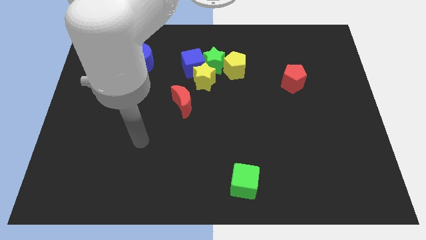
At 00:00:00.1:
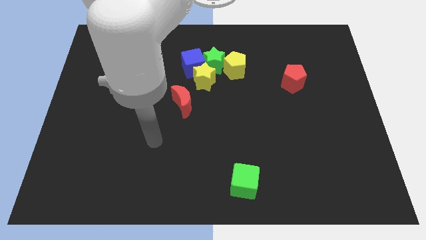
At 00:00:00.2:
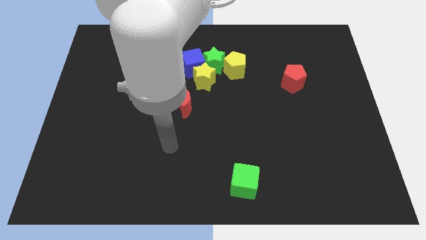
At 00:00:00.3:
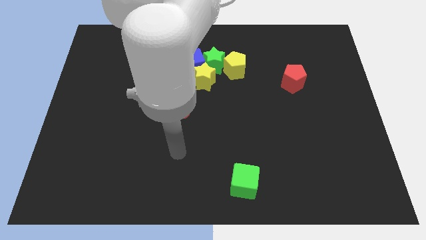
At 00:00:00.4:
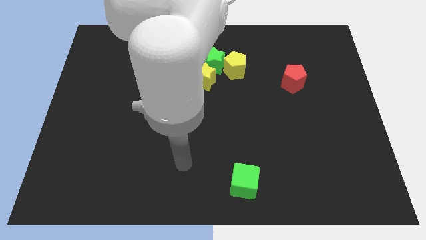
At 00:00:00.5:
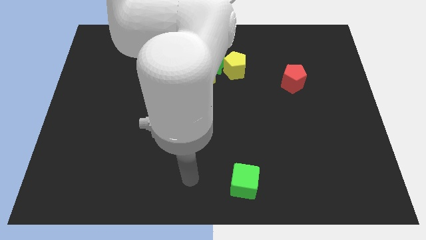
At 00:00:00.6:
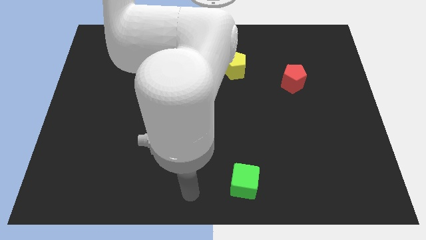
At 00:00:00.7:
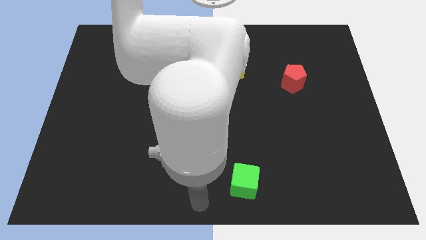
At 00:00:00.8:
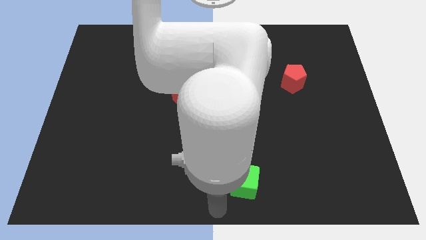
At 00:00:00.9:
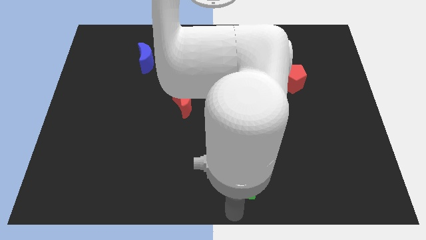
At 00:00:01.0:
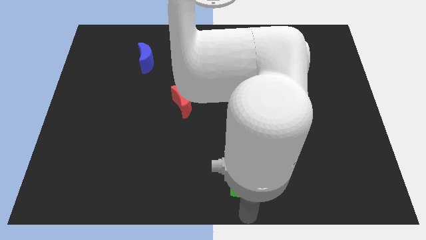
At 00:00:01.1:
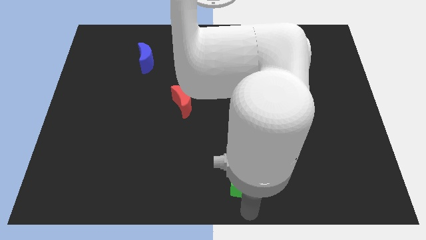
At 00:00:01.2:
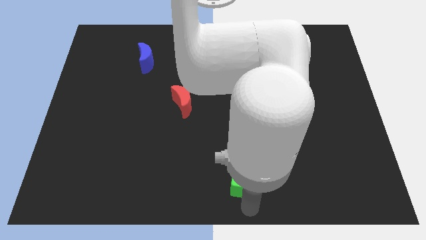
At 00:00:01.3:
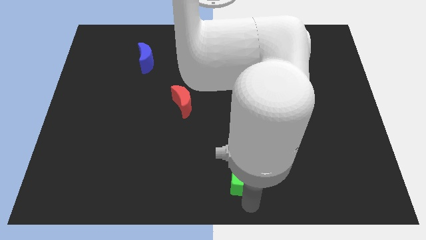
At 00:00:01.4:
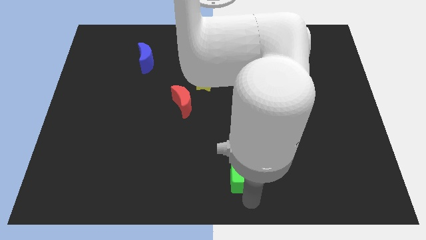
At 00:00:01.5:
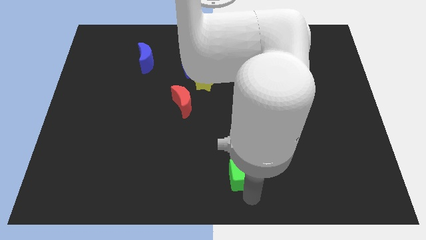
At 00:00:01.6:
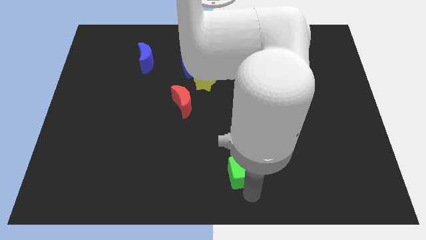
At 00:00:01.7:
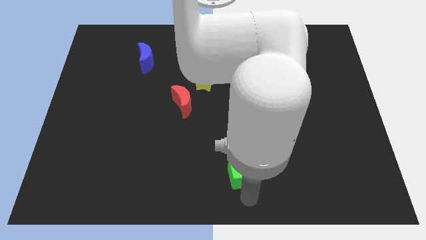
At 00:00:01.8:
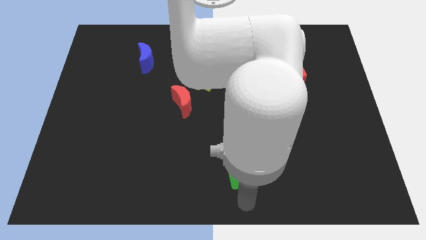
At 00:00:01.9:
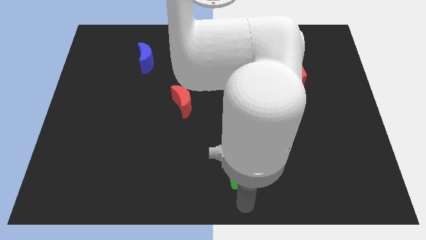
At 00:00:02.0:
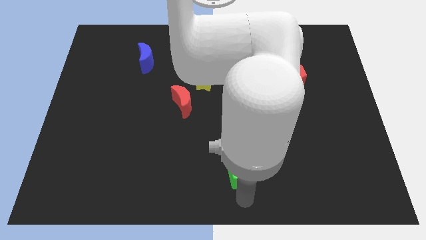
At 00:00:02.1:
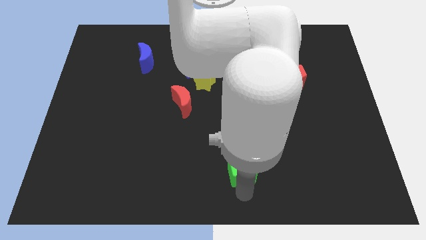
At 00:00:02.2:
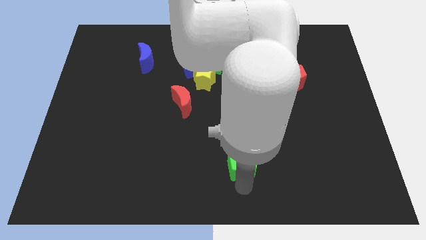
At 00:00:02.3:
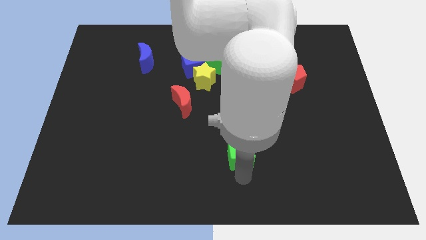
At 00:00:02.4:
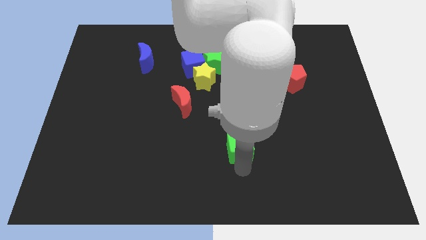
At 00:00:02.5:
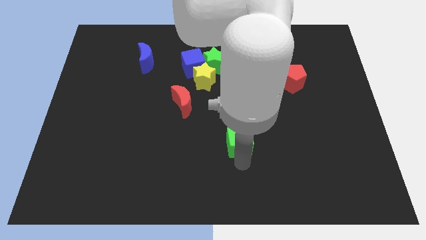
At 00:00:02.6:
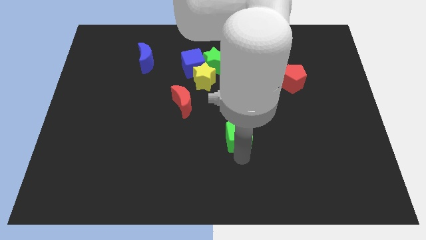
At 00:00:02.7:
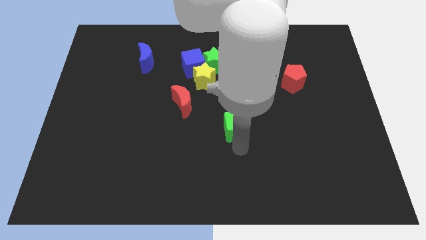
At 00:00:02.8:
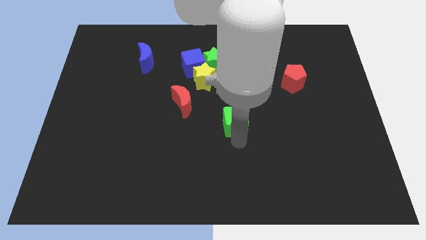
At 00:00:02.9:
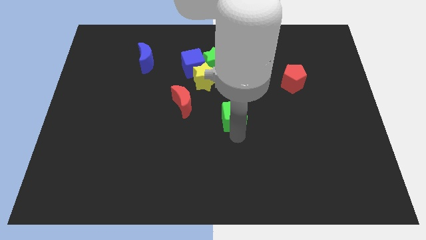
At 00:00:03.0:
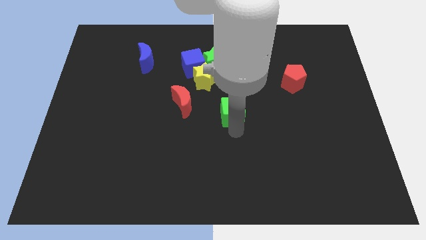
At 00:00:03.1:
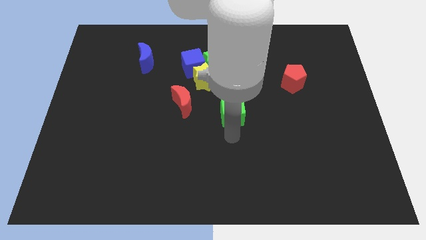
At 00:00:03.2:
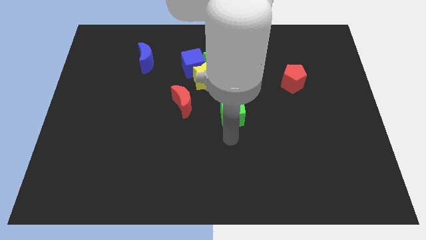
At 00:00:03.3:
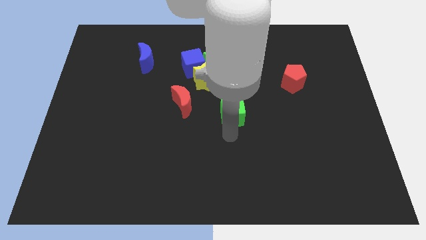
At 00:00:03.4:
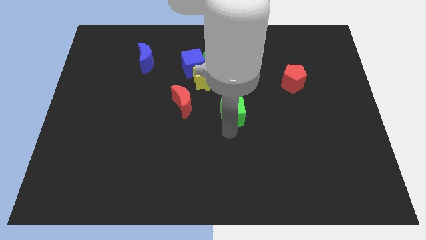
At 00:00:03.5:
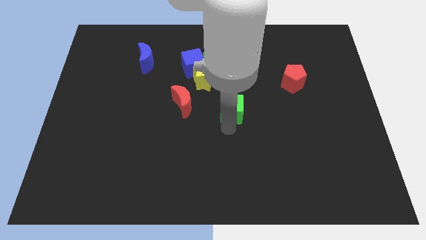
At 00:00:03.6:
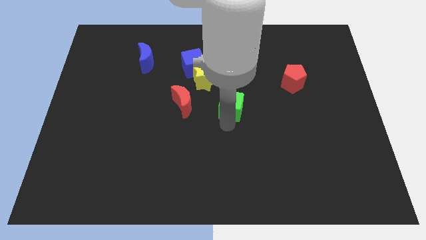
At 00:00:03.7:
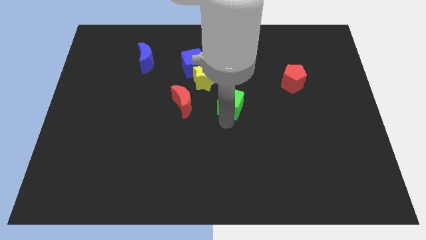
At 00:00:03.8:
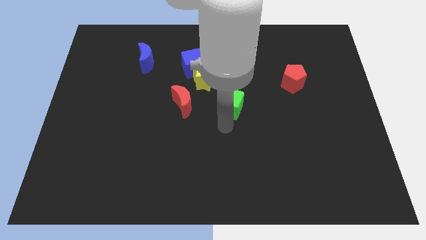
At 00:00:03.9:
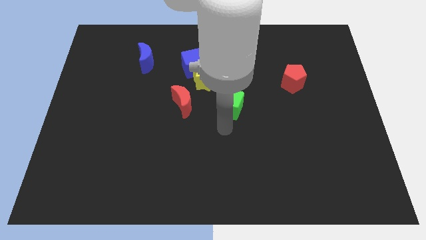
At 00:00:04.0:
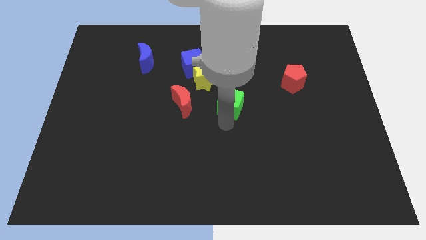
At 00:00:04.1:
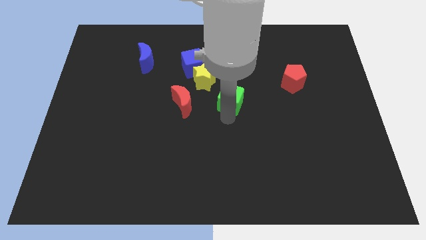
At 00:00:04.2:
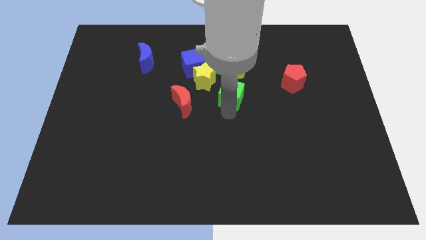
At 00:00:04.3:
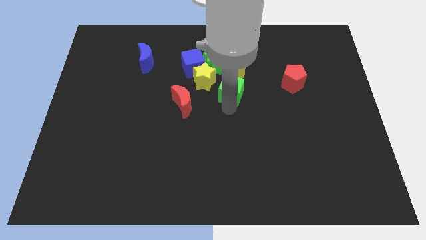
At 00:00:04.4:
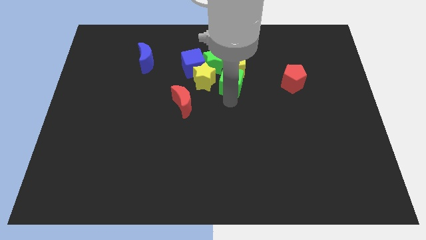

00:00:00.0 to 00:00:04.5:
move the green cube next to the yellow pentagon

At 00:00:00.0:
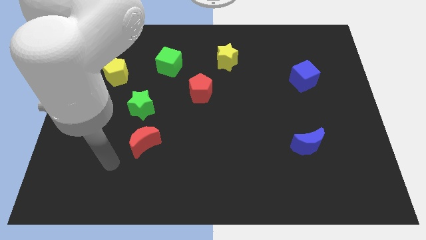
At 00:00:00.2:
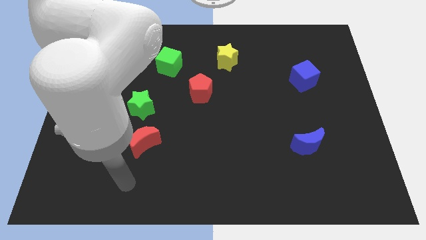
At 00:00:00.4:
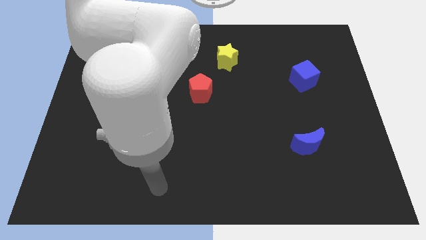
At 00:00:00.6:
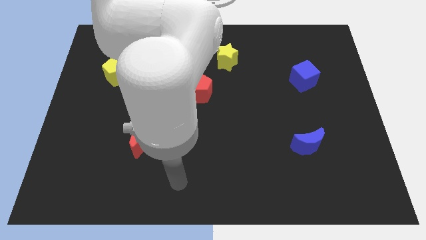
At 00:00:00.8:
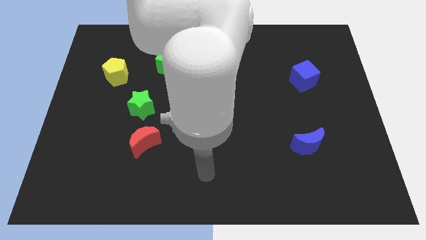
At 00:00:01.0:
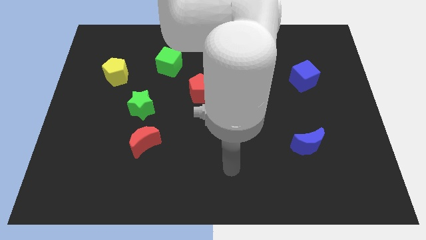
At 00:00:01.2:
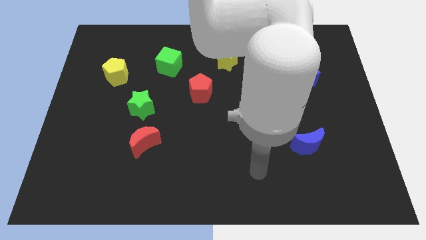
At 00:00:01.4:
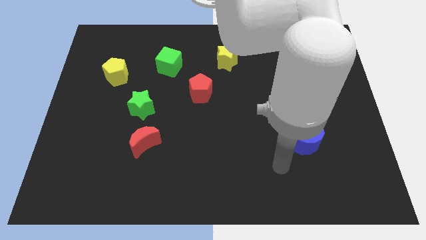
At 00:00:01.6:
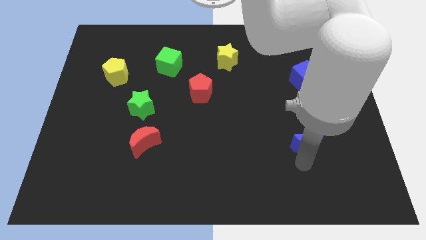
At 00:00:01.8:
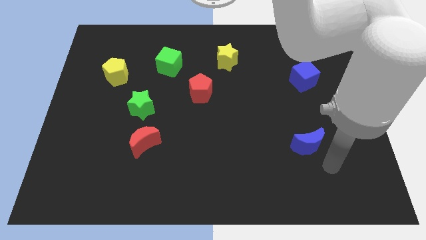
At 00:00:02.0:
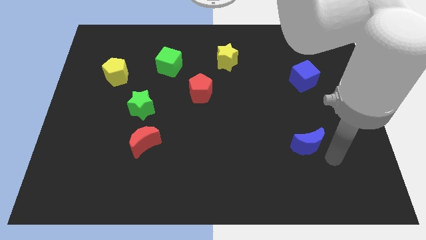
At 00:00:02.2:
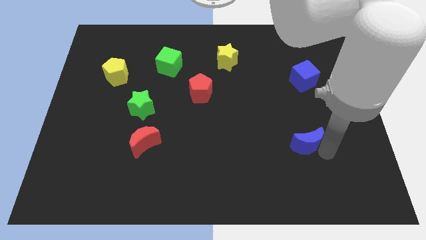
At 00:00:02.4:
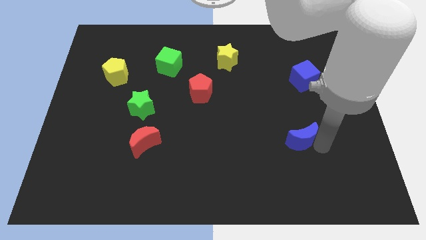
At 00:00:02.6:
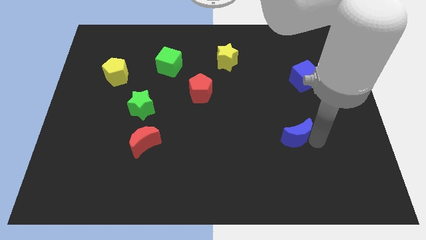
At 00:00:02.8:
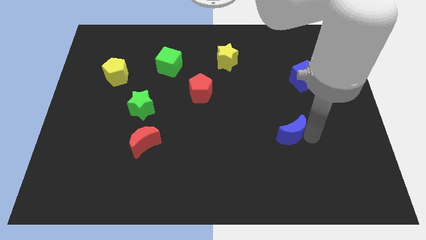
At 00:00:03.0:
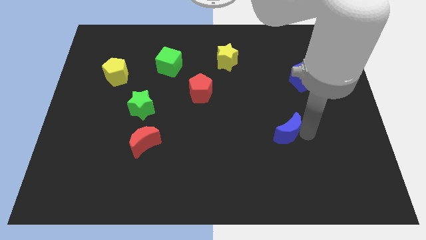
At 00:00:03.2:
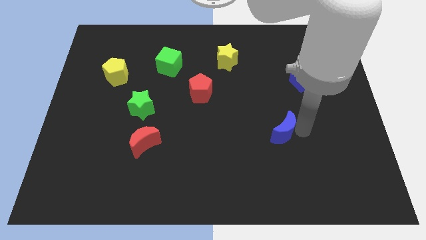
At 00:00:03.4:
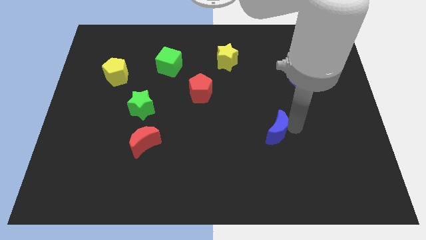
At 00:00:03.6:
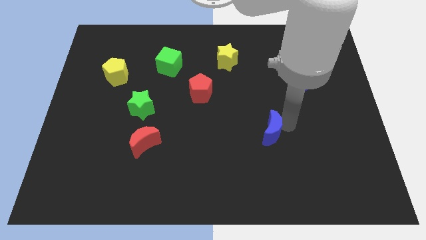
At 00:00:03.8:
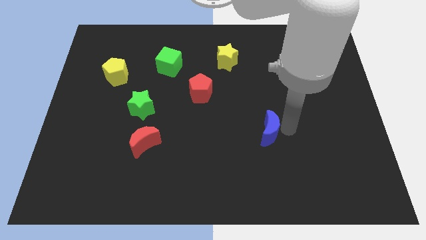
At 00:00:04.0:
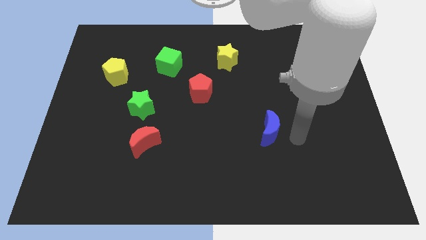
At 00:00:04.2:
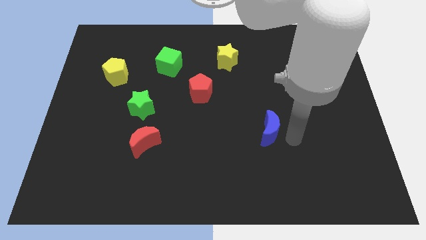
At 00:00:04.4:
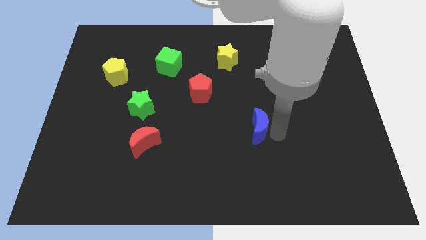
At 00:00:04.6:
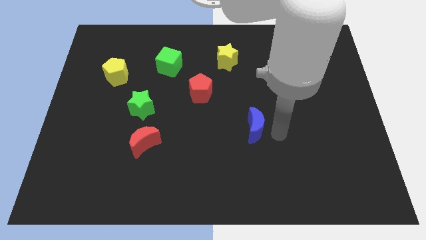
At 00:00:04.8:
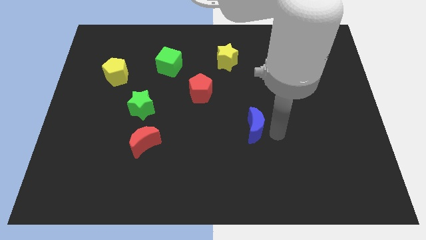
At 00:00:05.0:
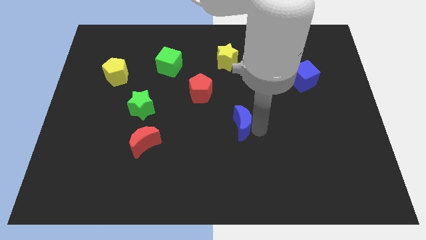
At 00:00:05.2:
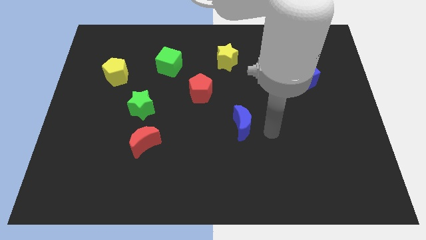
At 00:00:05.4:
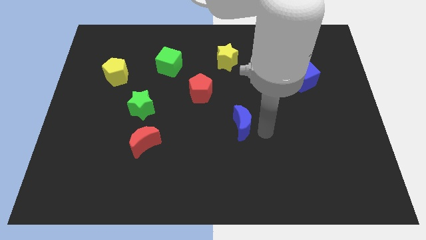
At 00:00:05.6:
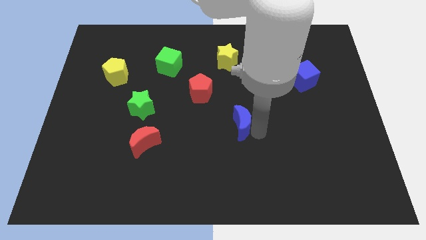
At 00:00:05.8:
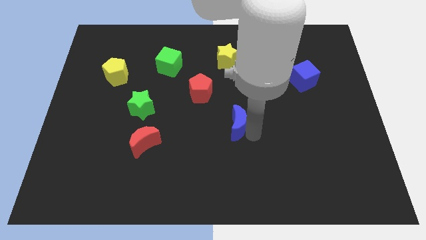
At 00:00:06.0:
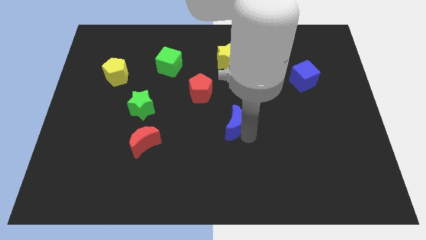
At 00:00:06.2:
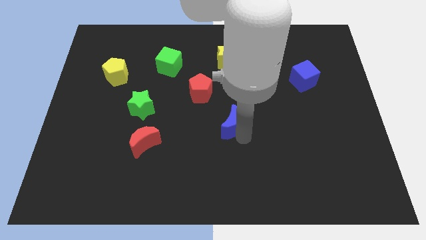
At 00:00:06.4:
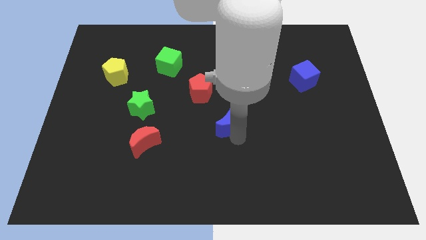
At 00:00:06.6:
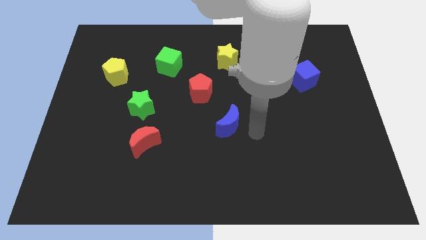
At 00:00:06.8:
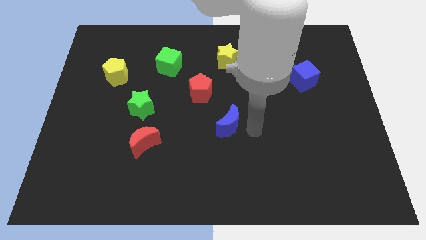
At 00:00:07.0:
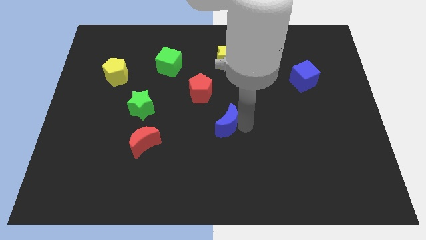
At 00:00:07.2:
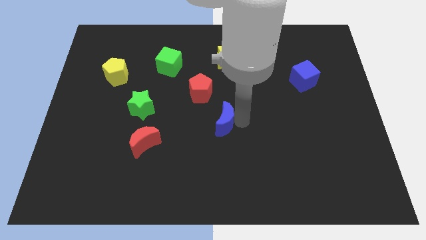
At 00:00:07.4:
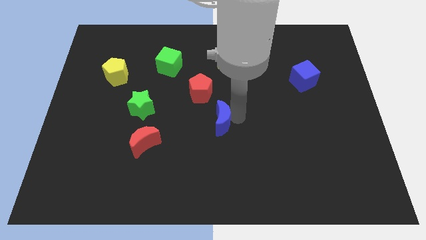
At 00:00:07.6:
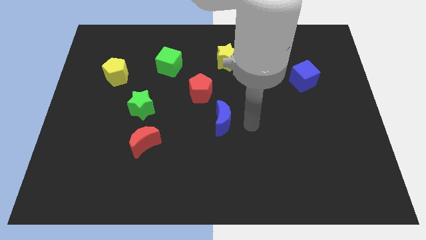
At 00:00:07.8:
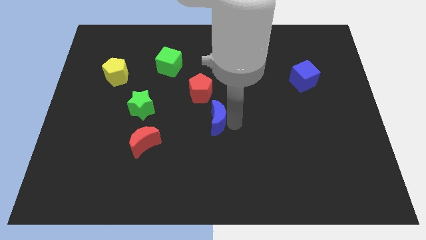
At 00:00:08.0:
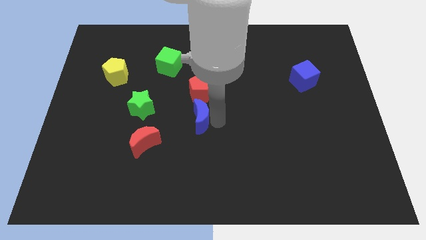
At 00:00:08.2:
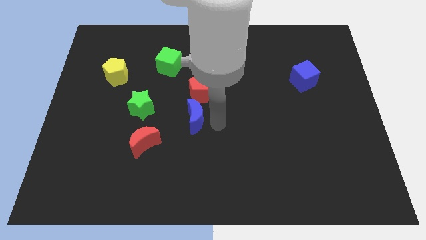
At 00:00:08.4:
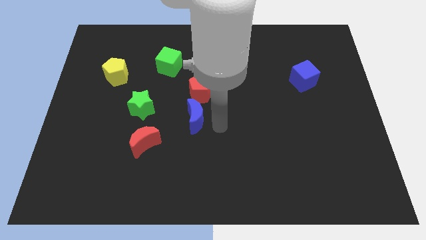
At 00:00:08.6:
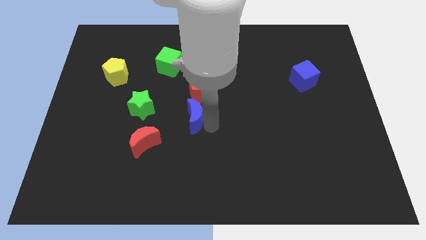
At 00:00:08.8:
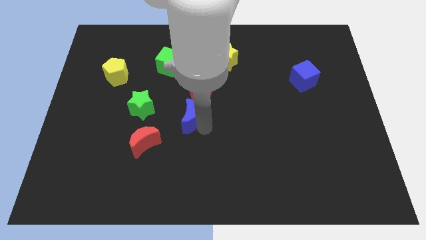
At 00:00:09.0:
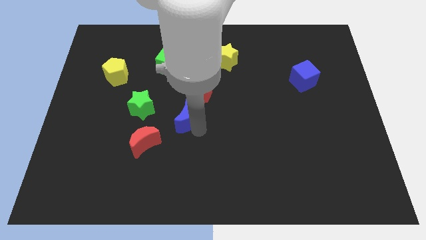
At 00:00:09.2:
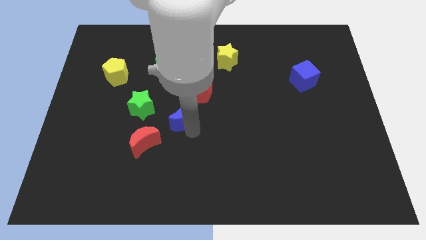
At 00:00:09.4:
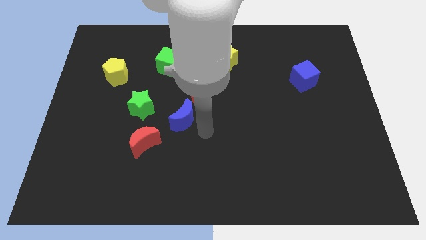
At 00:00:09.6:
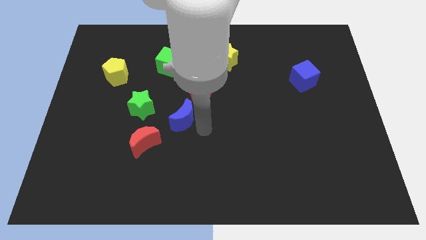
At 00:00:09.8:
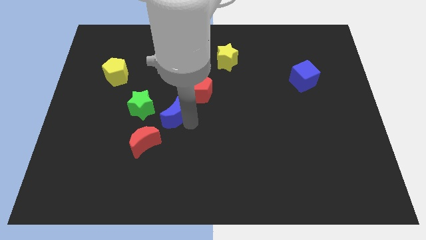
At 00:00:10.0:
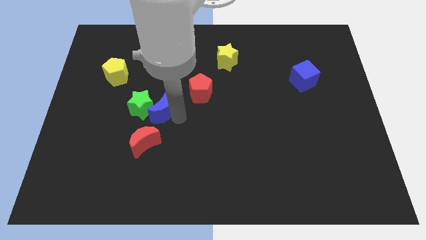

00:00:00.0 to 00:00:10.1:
push the blue moon next to the green star
